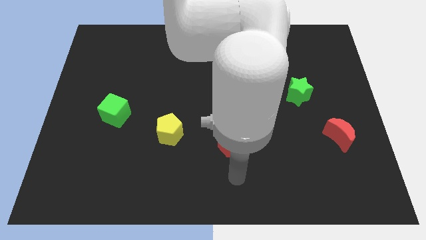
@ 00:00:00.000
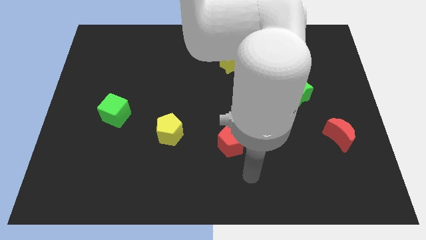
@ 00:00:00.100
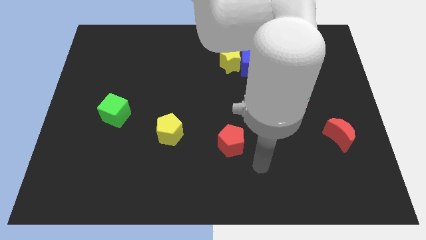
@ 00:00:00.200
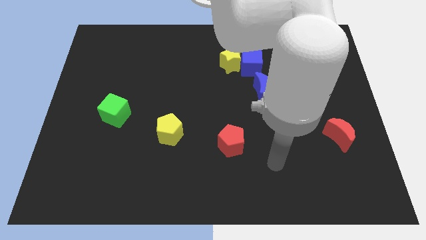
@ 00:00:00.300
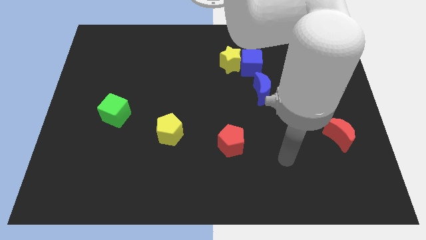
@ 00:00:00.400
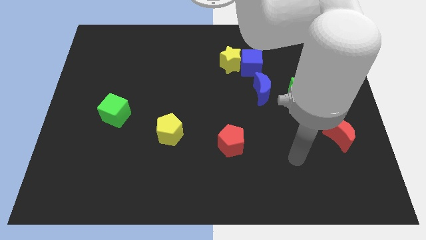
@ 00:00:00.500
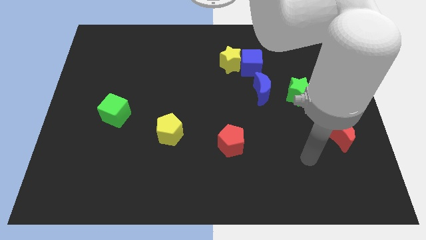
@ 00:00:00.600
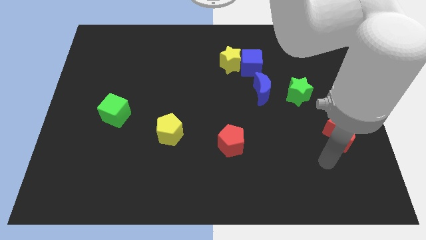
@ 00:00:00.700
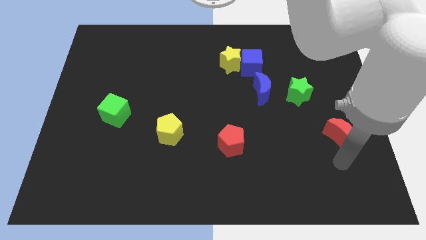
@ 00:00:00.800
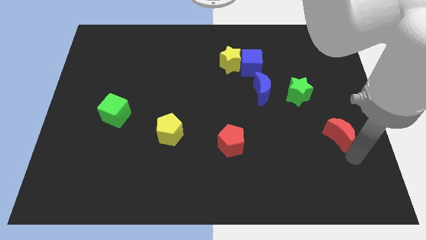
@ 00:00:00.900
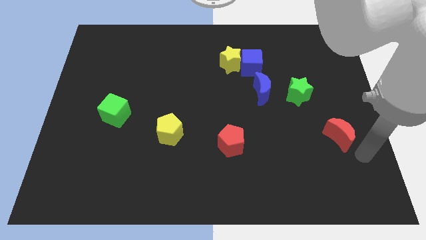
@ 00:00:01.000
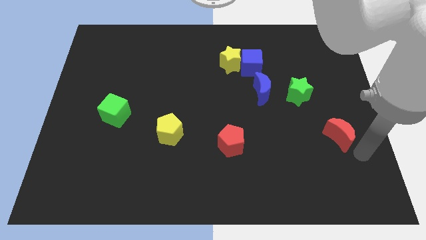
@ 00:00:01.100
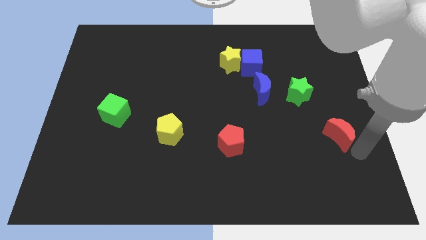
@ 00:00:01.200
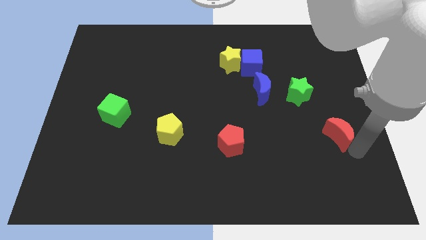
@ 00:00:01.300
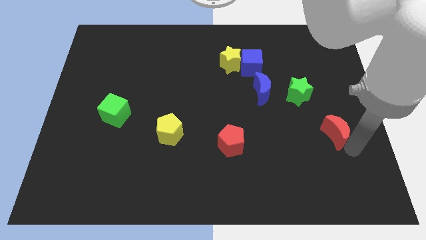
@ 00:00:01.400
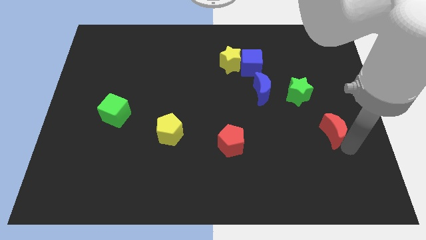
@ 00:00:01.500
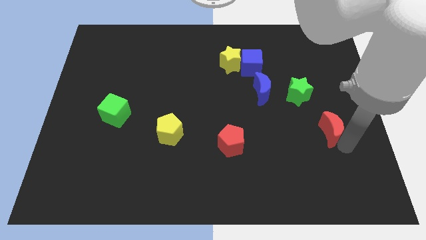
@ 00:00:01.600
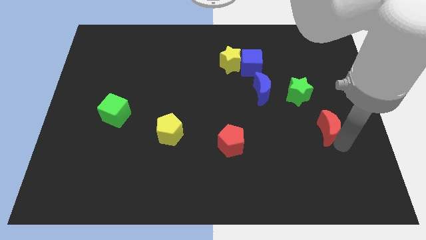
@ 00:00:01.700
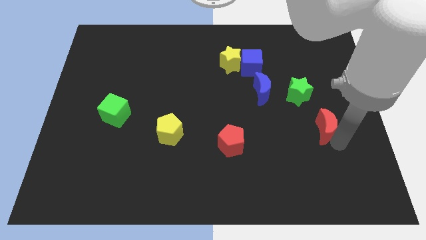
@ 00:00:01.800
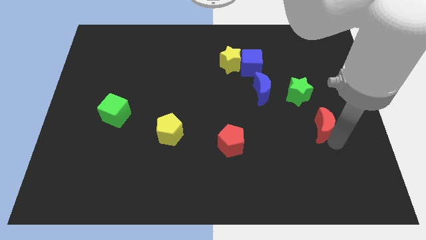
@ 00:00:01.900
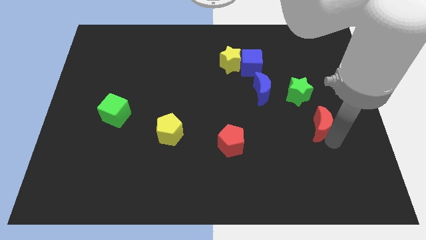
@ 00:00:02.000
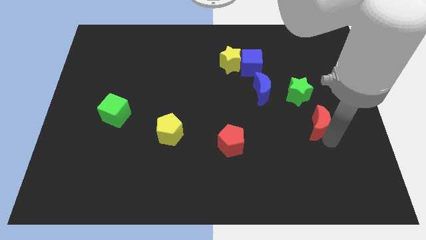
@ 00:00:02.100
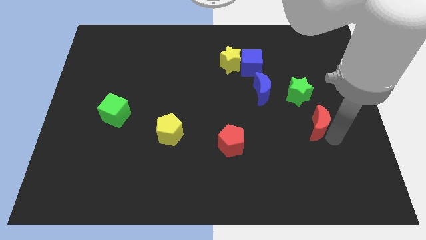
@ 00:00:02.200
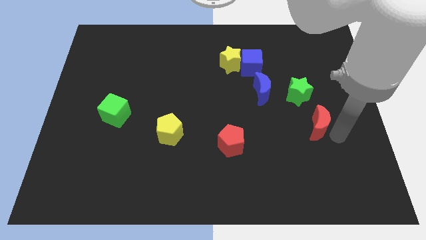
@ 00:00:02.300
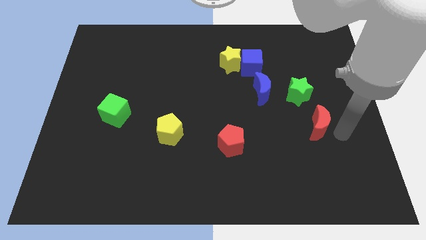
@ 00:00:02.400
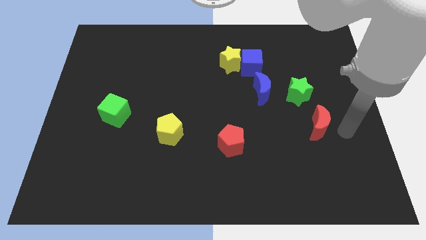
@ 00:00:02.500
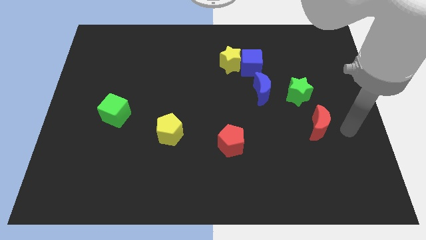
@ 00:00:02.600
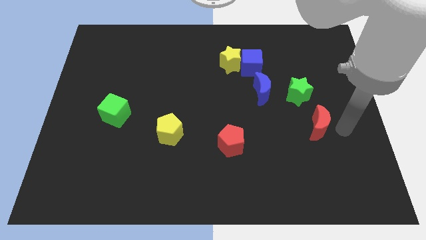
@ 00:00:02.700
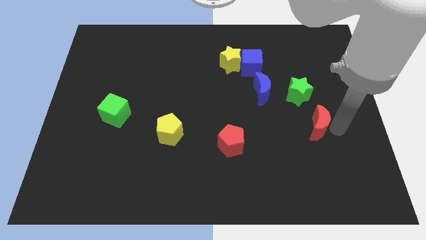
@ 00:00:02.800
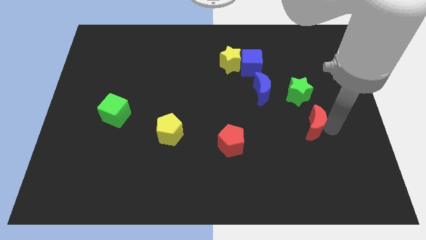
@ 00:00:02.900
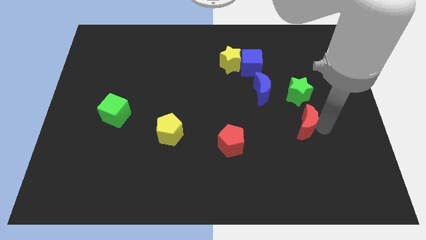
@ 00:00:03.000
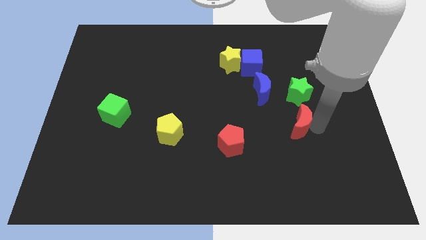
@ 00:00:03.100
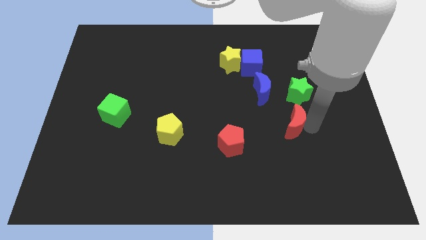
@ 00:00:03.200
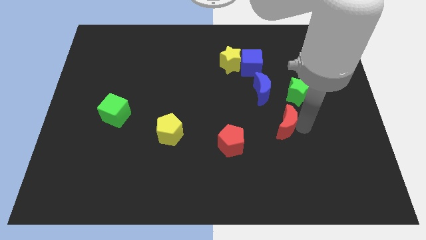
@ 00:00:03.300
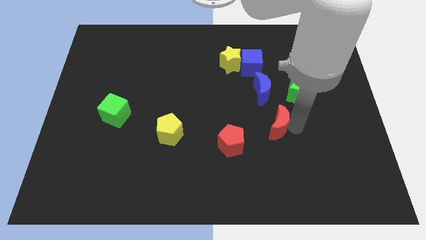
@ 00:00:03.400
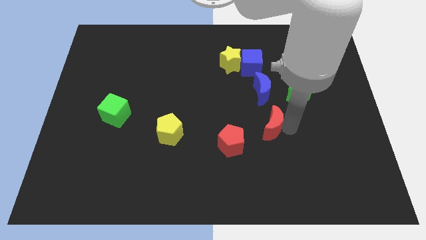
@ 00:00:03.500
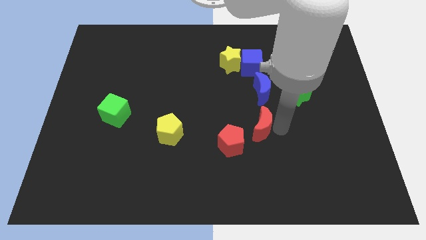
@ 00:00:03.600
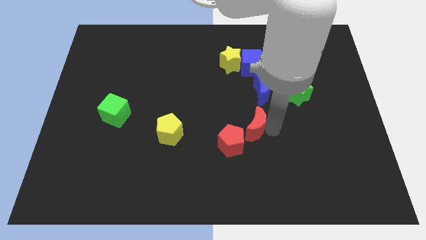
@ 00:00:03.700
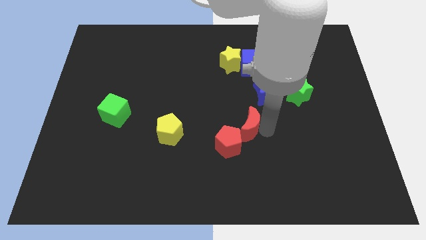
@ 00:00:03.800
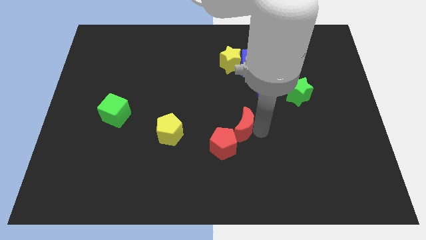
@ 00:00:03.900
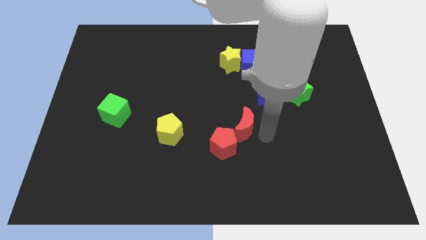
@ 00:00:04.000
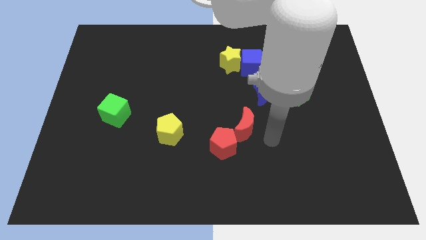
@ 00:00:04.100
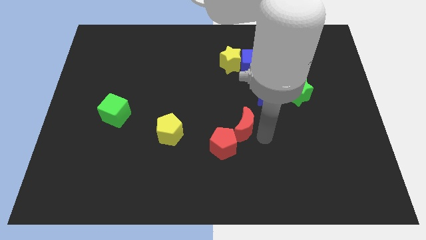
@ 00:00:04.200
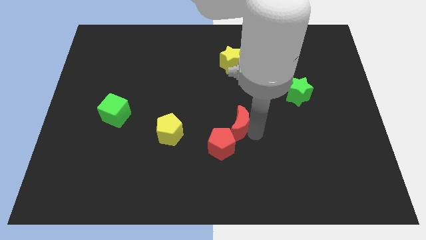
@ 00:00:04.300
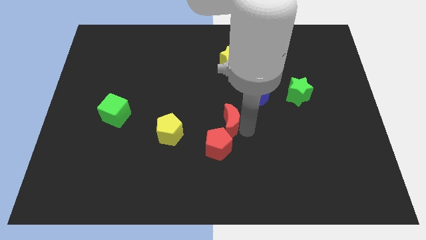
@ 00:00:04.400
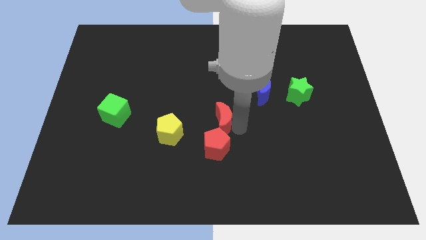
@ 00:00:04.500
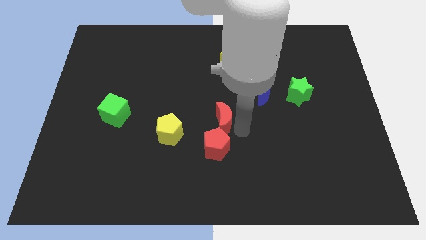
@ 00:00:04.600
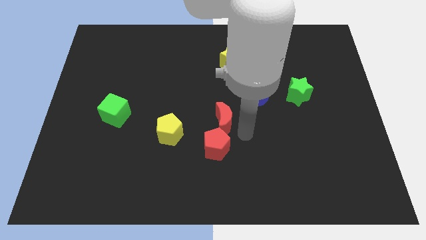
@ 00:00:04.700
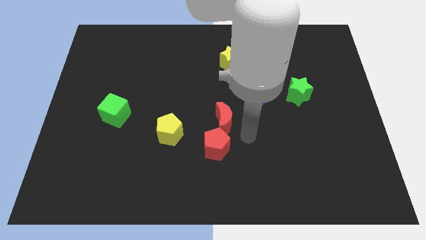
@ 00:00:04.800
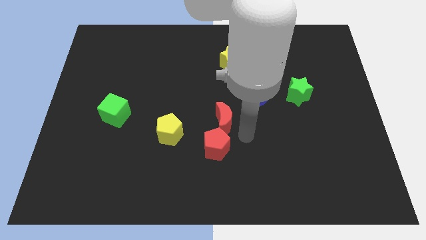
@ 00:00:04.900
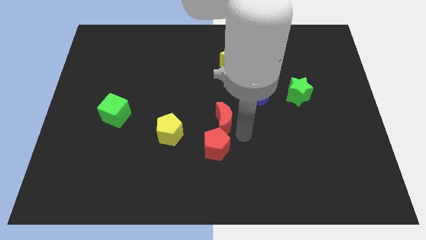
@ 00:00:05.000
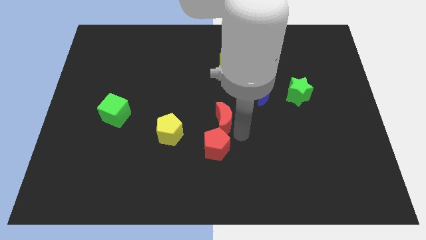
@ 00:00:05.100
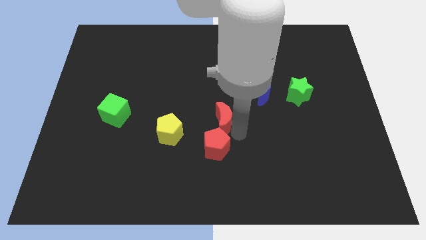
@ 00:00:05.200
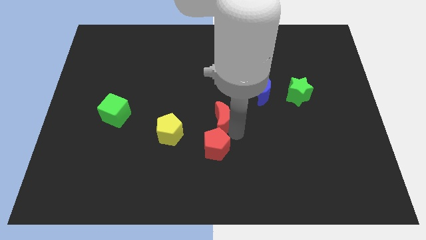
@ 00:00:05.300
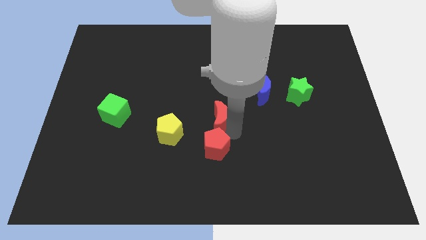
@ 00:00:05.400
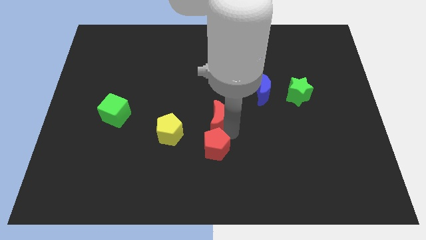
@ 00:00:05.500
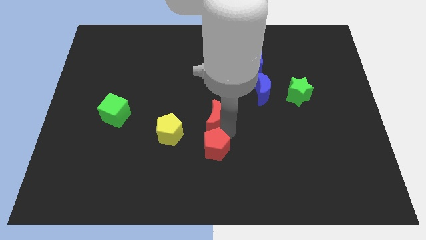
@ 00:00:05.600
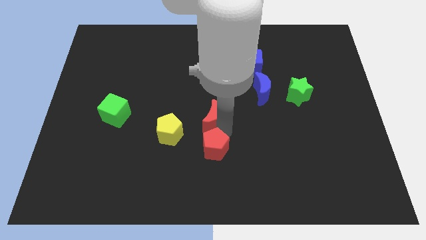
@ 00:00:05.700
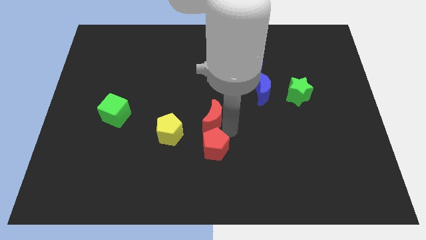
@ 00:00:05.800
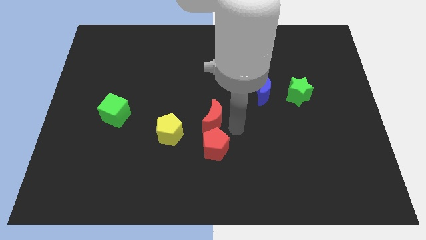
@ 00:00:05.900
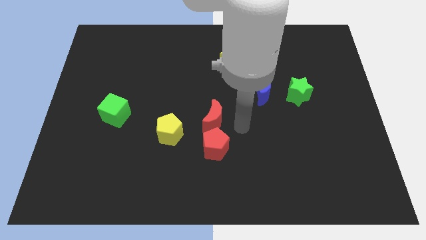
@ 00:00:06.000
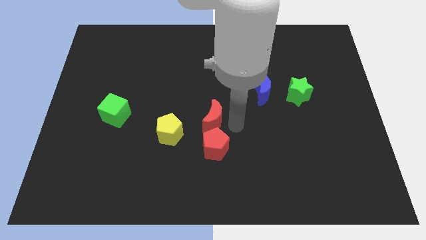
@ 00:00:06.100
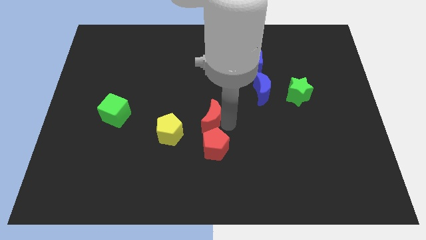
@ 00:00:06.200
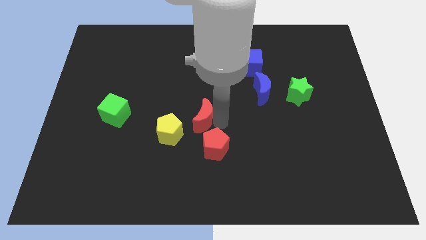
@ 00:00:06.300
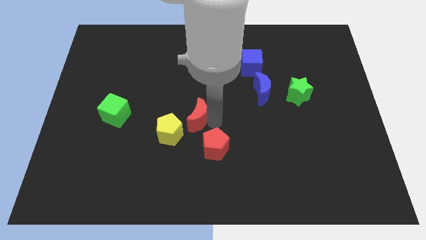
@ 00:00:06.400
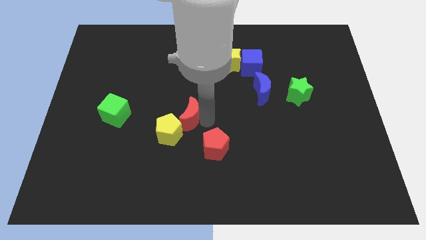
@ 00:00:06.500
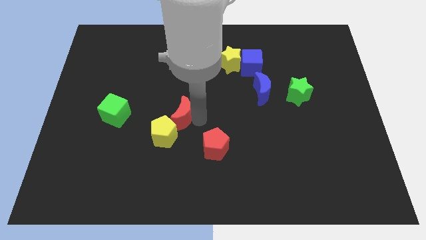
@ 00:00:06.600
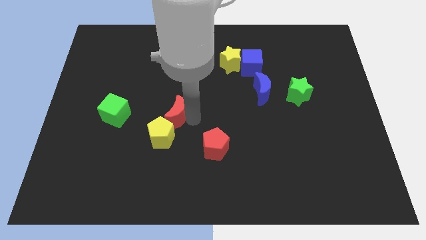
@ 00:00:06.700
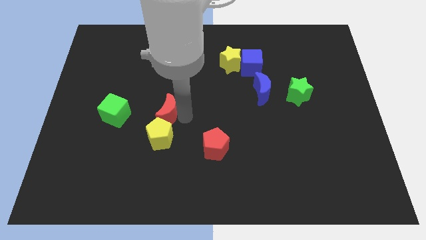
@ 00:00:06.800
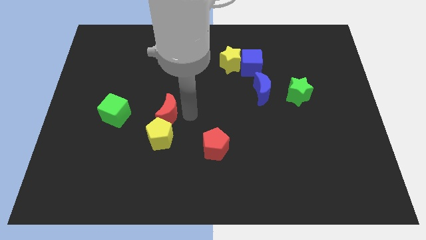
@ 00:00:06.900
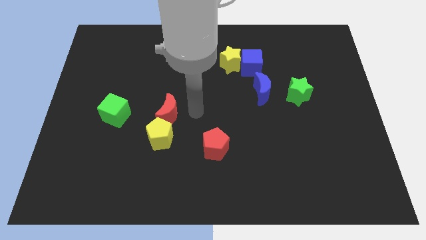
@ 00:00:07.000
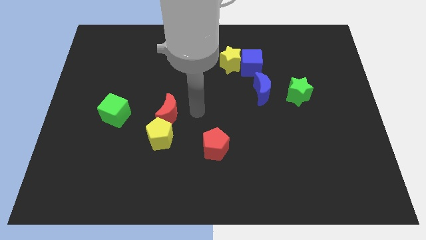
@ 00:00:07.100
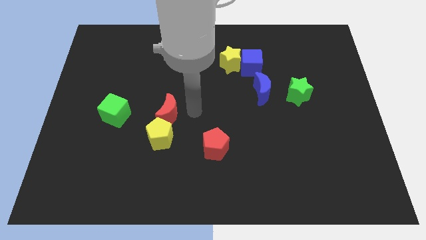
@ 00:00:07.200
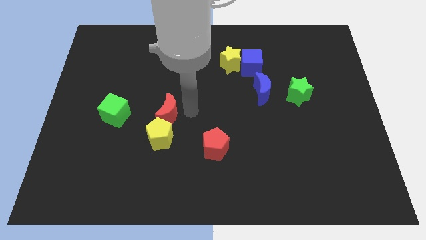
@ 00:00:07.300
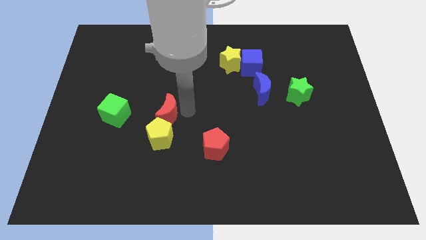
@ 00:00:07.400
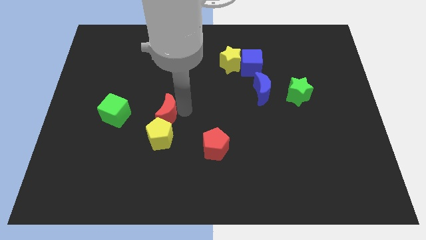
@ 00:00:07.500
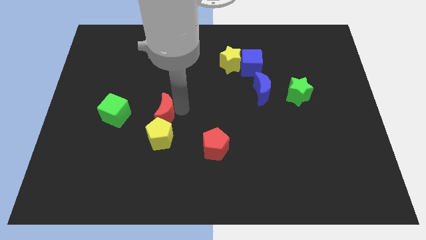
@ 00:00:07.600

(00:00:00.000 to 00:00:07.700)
slide the red moon diagonally up and to the left of the yellow pentagon
